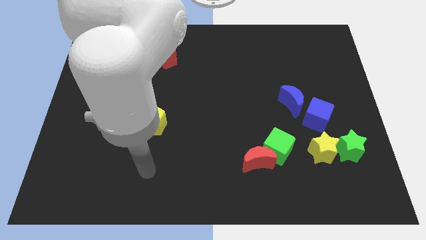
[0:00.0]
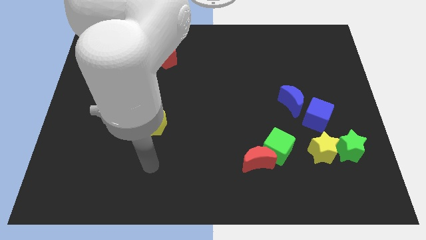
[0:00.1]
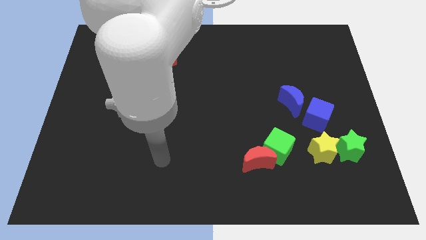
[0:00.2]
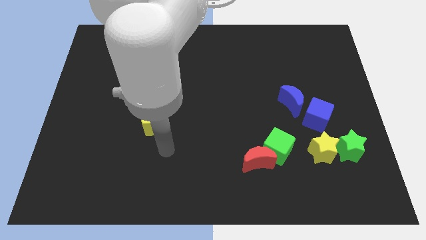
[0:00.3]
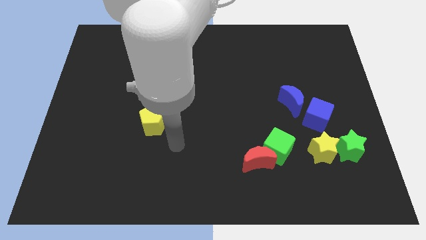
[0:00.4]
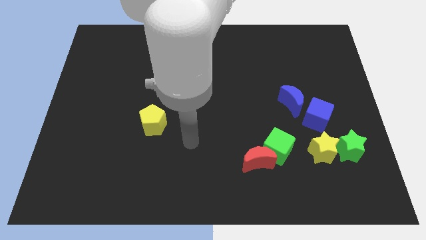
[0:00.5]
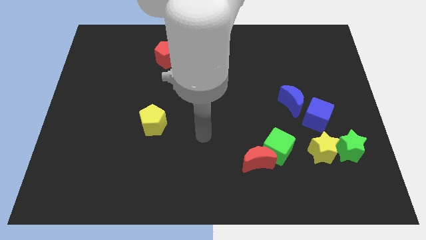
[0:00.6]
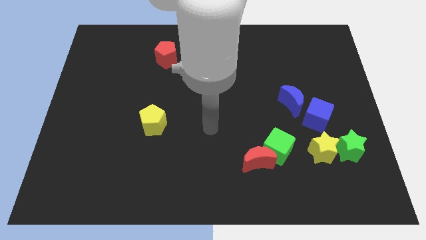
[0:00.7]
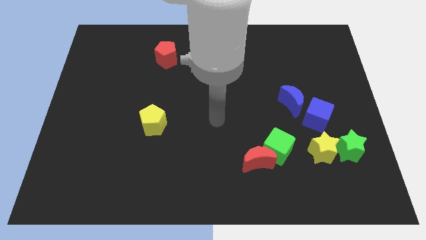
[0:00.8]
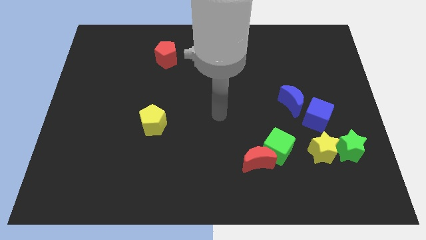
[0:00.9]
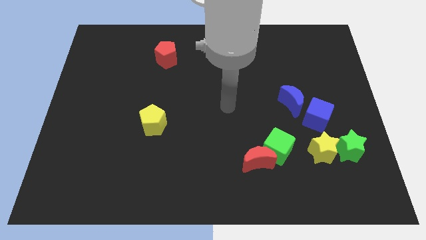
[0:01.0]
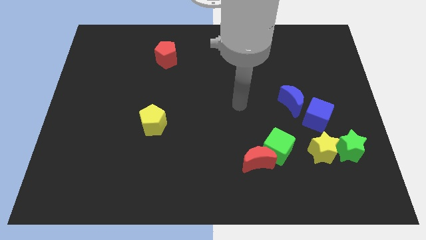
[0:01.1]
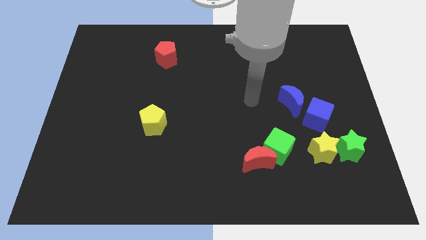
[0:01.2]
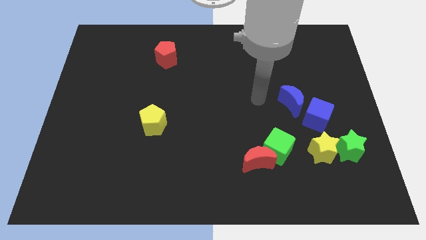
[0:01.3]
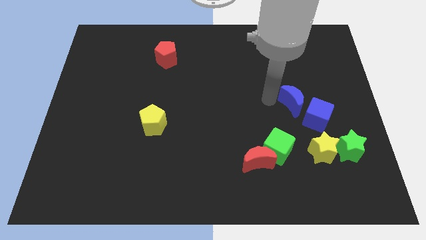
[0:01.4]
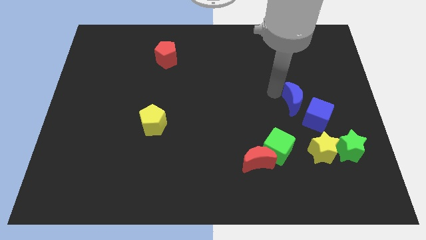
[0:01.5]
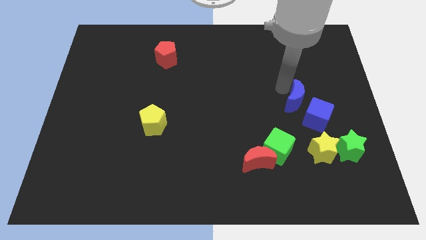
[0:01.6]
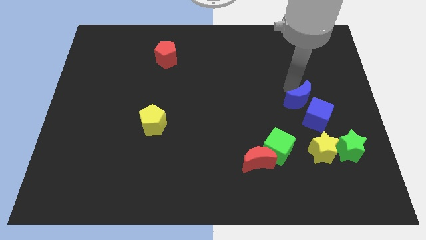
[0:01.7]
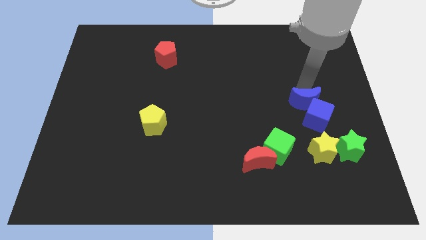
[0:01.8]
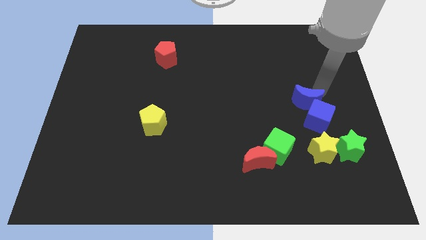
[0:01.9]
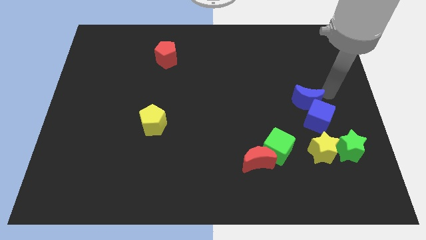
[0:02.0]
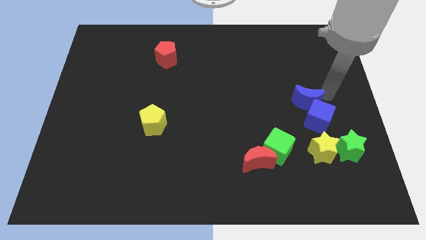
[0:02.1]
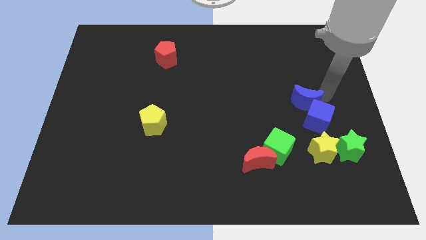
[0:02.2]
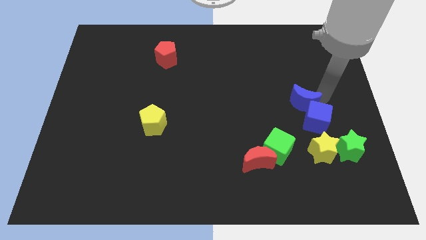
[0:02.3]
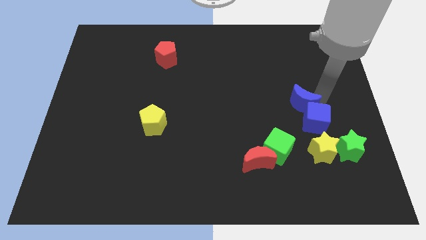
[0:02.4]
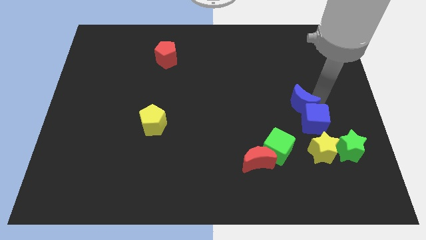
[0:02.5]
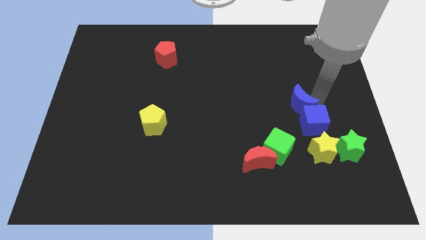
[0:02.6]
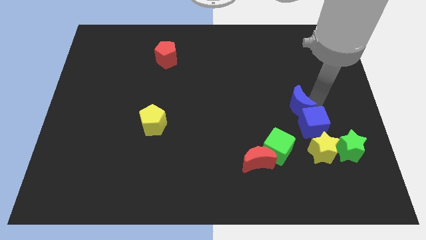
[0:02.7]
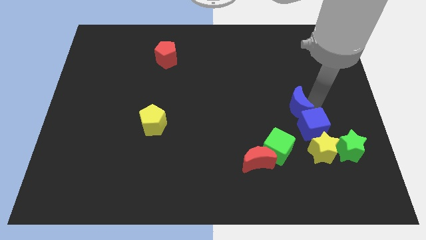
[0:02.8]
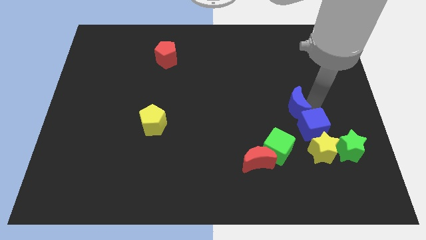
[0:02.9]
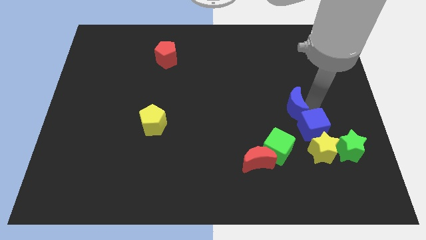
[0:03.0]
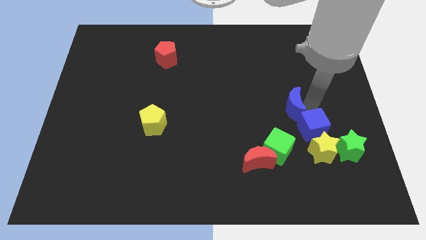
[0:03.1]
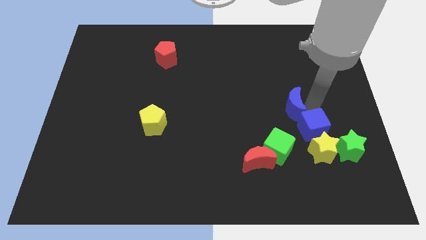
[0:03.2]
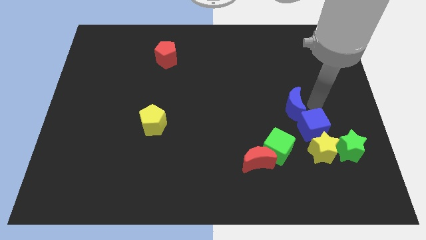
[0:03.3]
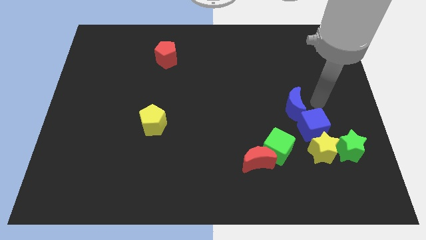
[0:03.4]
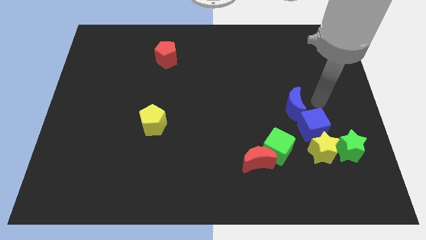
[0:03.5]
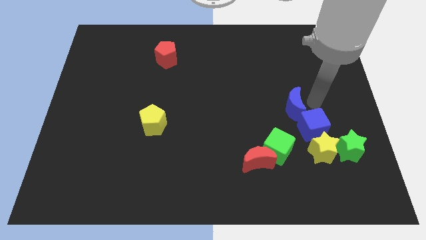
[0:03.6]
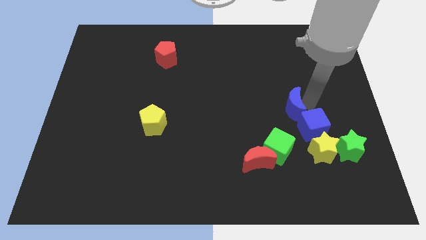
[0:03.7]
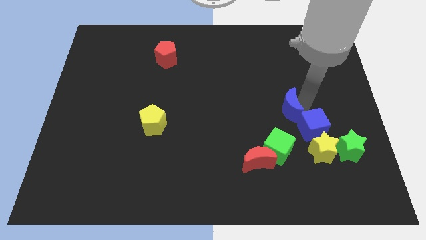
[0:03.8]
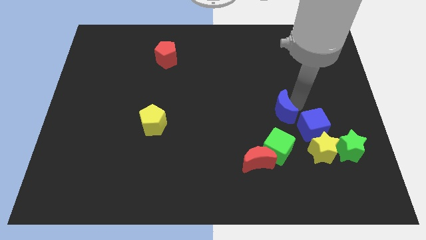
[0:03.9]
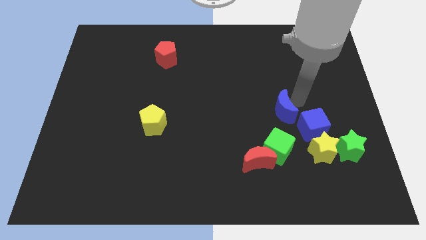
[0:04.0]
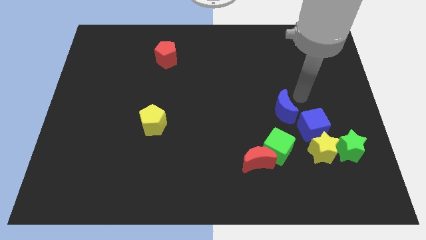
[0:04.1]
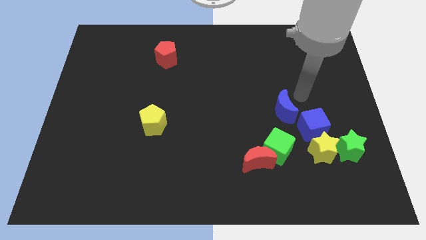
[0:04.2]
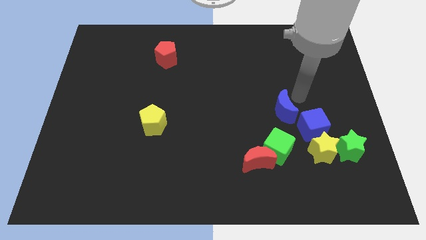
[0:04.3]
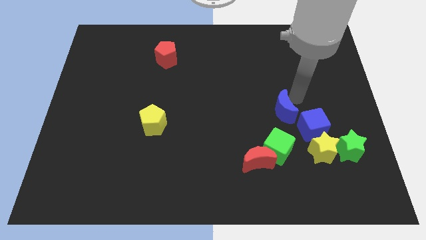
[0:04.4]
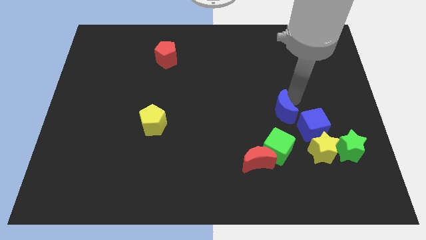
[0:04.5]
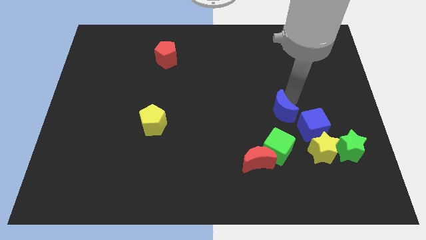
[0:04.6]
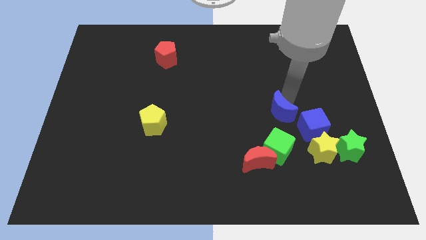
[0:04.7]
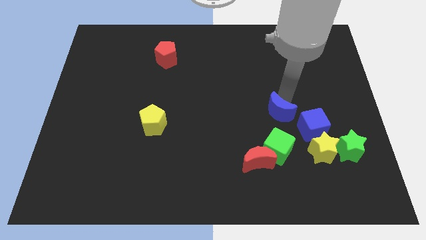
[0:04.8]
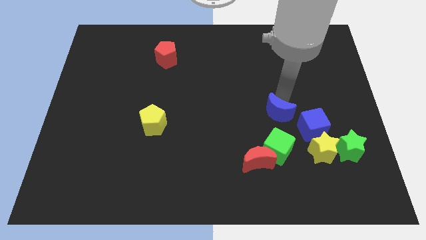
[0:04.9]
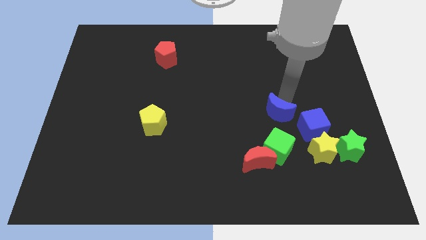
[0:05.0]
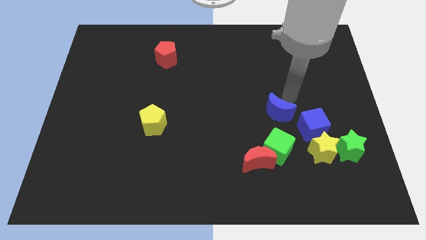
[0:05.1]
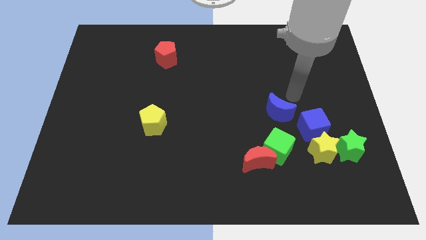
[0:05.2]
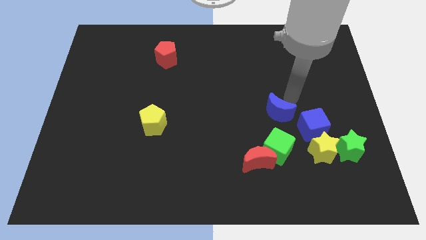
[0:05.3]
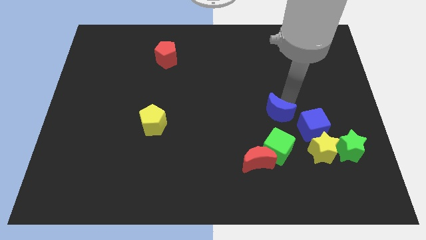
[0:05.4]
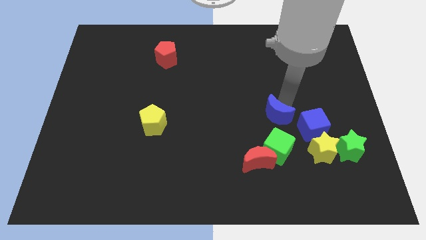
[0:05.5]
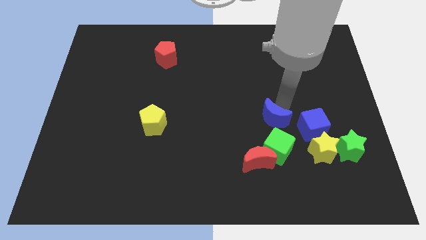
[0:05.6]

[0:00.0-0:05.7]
slightly push the blue moon down and then to the left

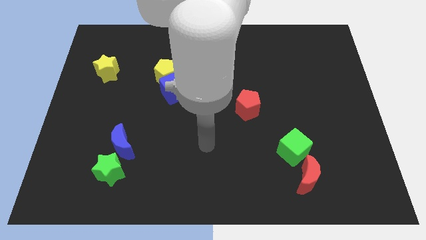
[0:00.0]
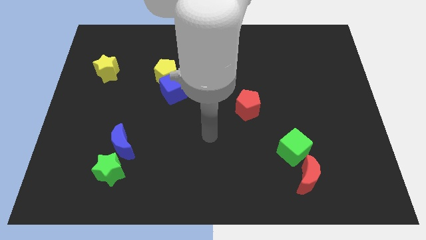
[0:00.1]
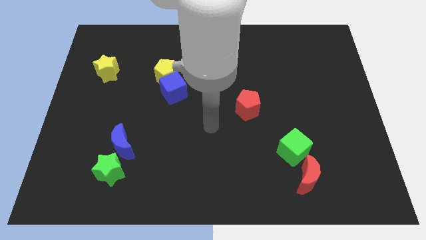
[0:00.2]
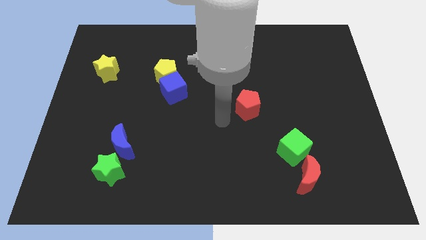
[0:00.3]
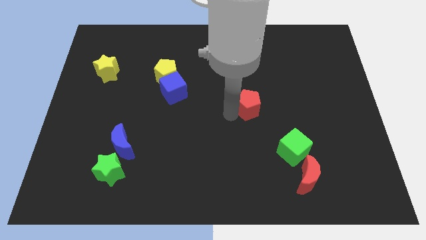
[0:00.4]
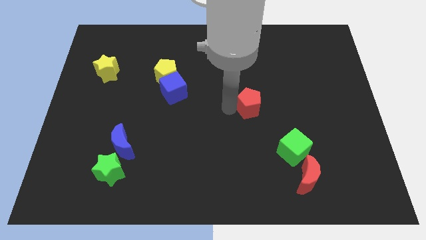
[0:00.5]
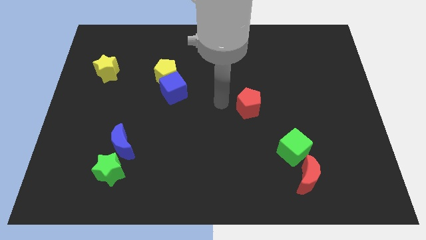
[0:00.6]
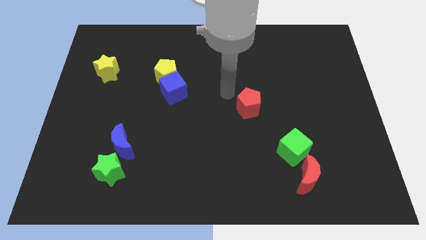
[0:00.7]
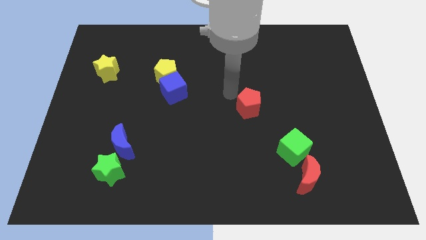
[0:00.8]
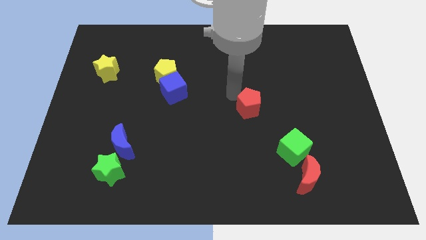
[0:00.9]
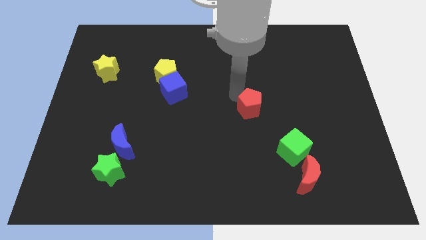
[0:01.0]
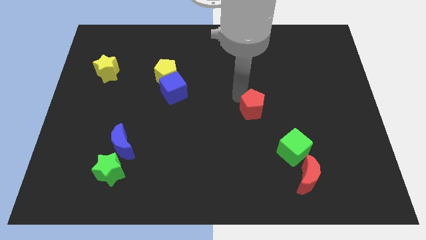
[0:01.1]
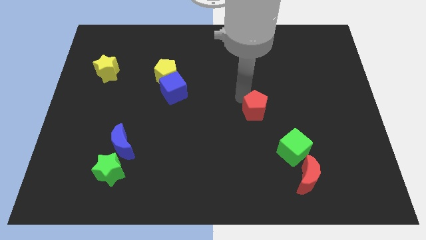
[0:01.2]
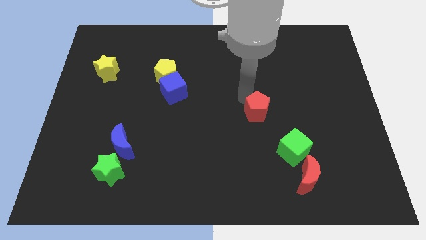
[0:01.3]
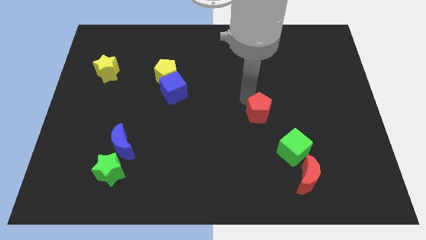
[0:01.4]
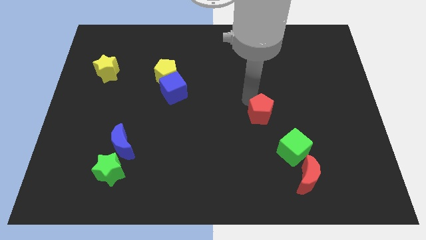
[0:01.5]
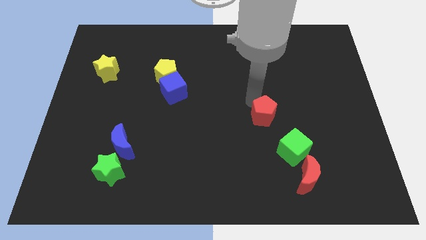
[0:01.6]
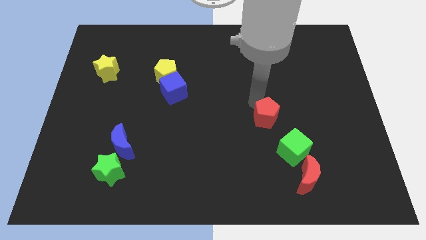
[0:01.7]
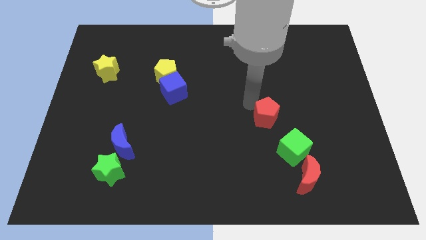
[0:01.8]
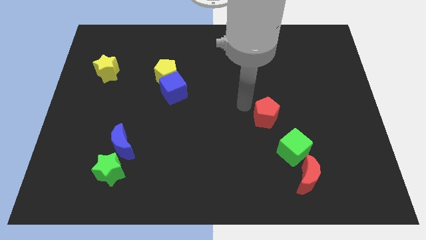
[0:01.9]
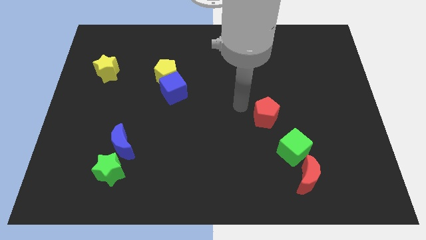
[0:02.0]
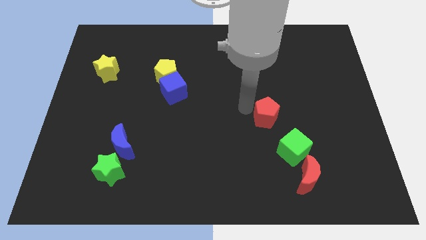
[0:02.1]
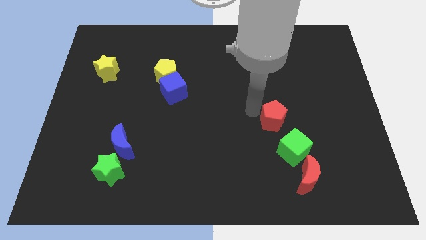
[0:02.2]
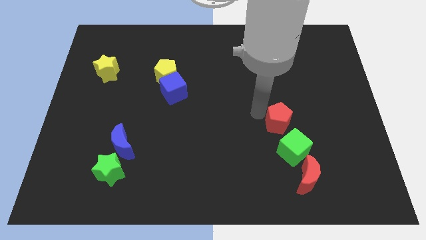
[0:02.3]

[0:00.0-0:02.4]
move the red pentagon downwards and right slightly
